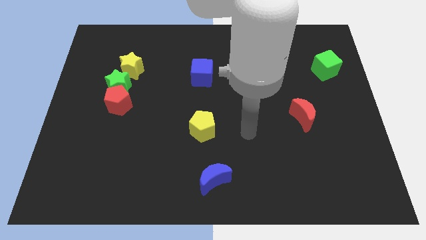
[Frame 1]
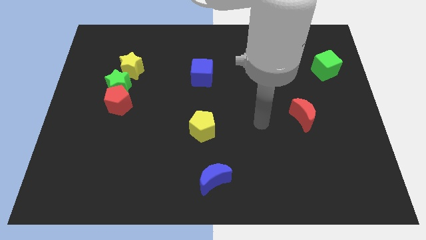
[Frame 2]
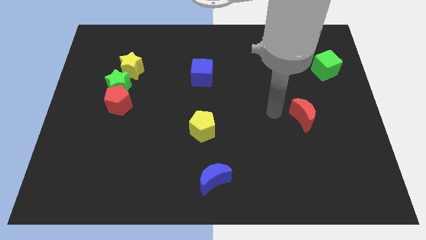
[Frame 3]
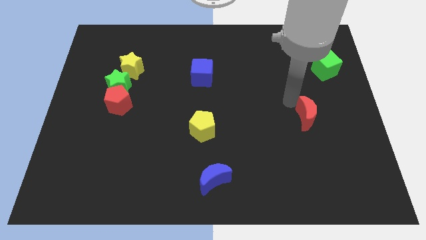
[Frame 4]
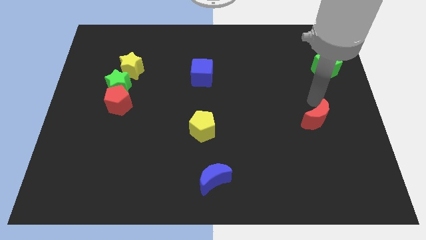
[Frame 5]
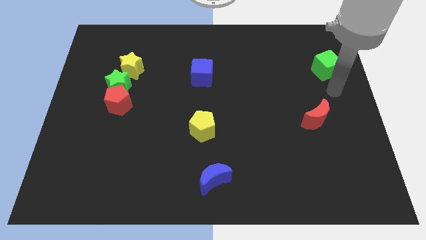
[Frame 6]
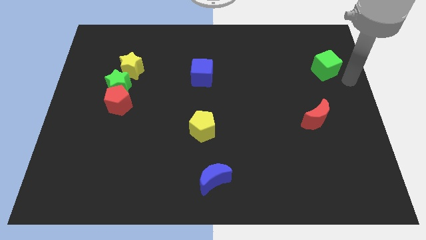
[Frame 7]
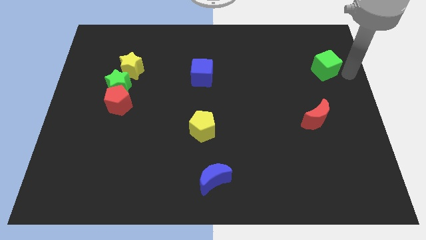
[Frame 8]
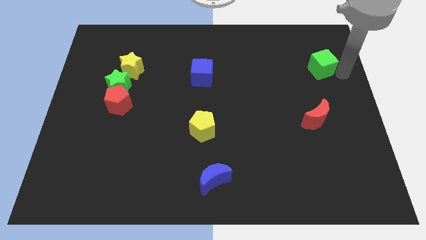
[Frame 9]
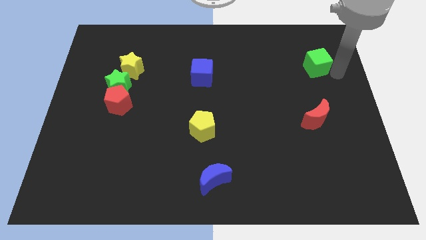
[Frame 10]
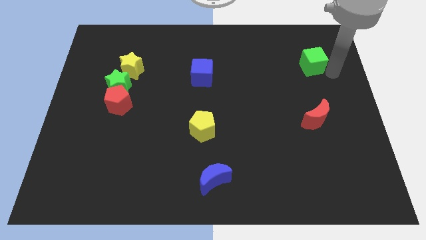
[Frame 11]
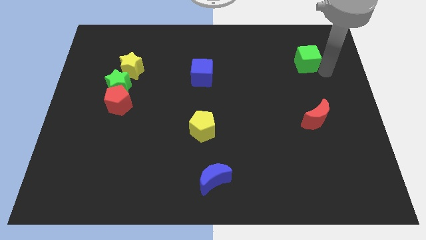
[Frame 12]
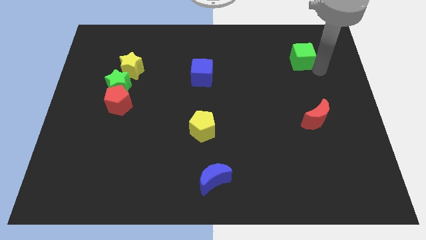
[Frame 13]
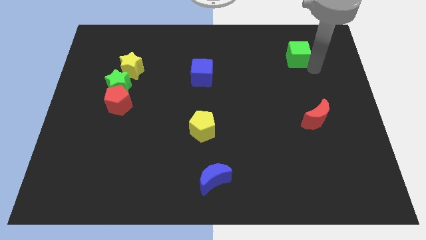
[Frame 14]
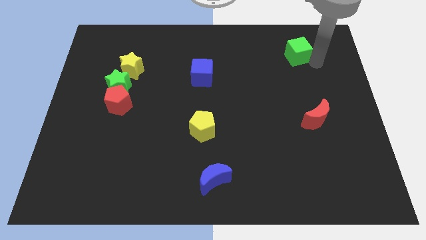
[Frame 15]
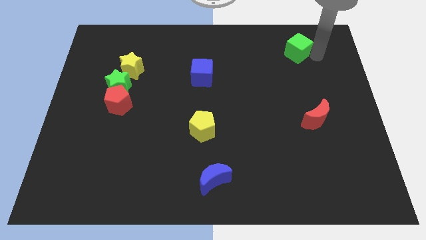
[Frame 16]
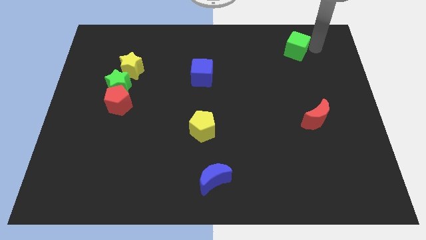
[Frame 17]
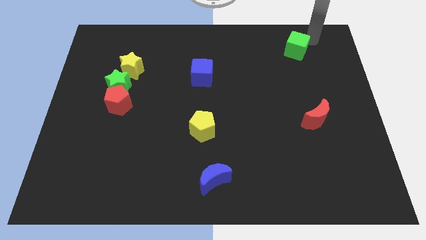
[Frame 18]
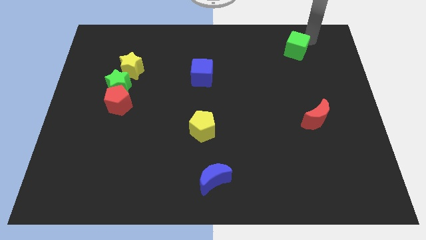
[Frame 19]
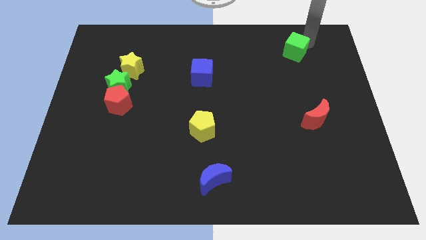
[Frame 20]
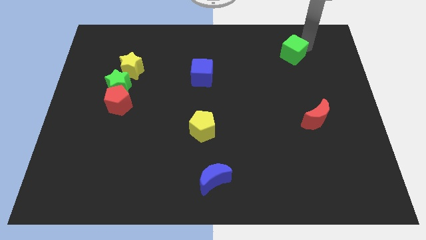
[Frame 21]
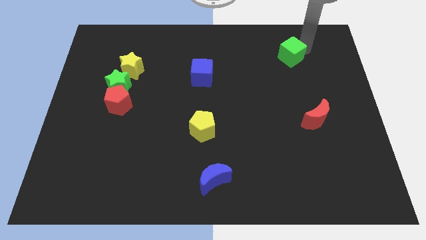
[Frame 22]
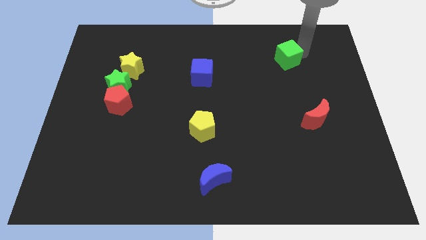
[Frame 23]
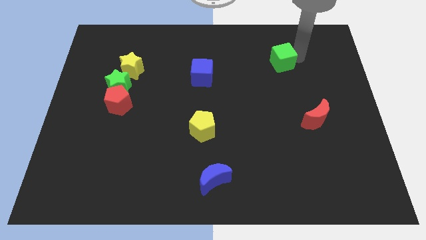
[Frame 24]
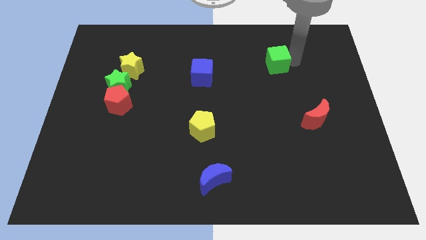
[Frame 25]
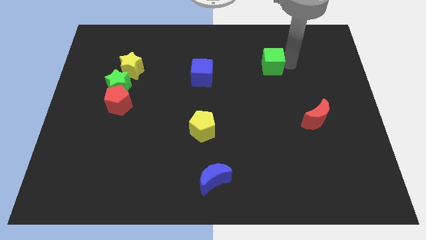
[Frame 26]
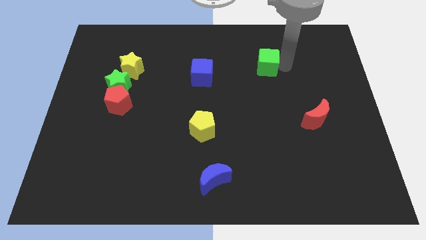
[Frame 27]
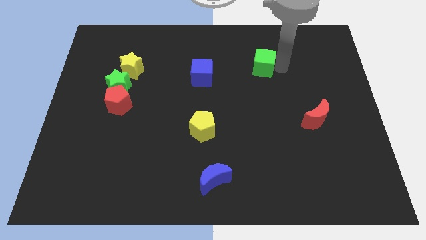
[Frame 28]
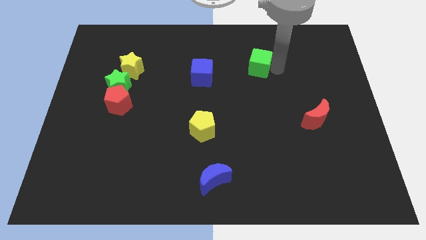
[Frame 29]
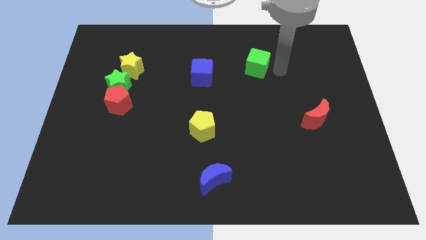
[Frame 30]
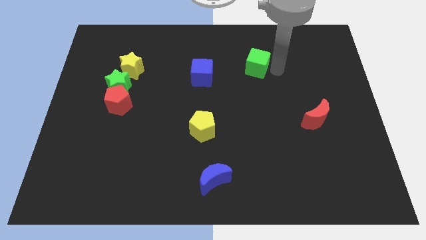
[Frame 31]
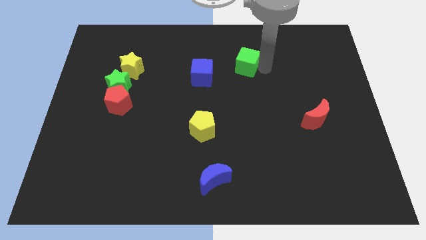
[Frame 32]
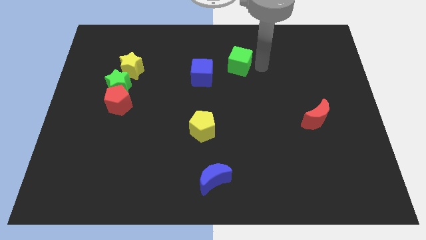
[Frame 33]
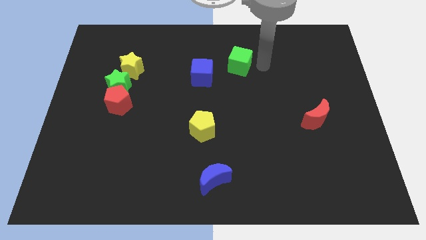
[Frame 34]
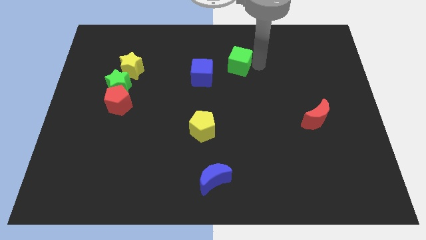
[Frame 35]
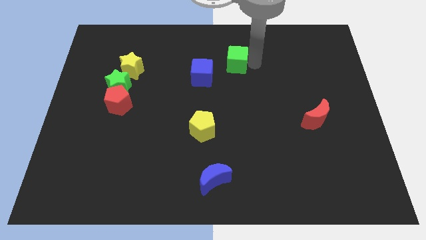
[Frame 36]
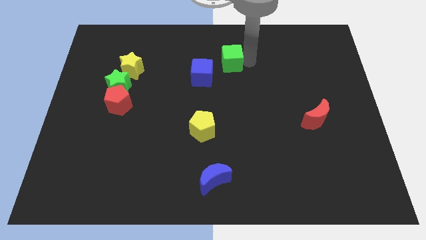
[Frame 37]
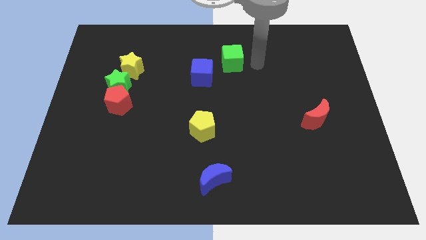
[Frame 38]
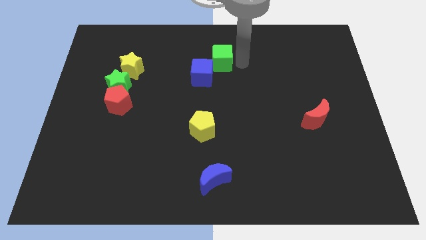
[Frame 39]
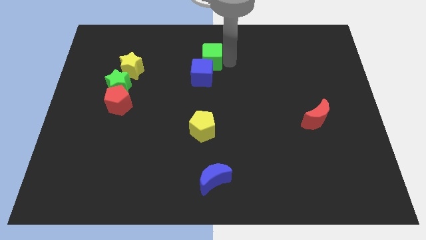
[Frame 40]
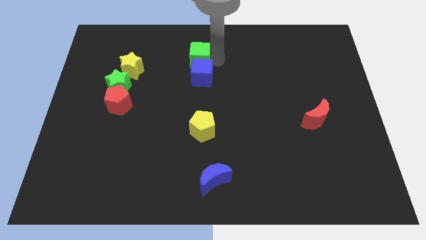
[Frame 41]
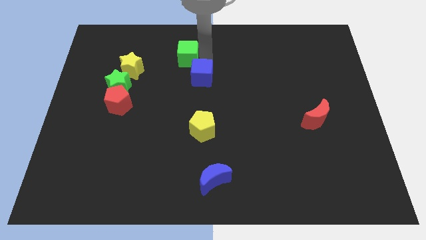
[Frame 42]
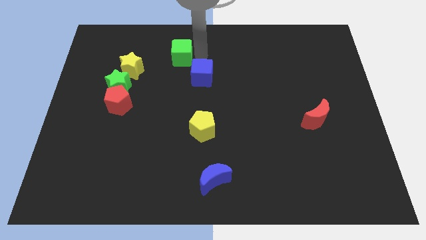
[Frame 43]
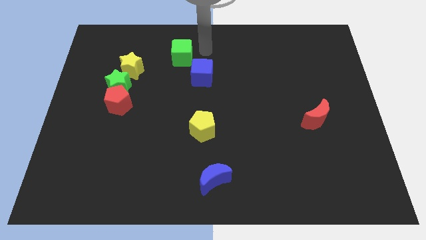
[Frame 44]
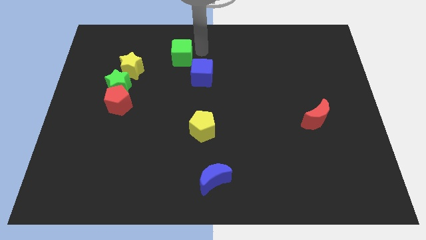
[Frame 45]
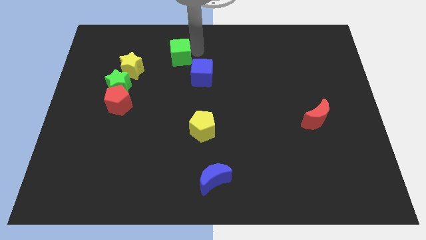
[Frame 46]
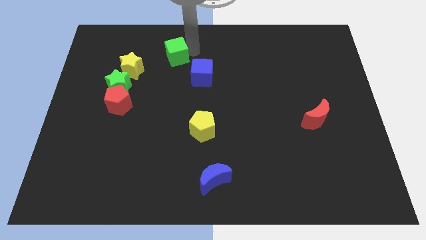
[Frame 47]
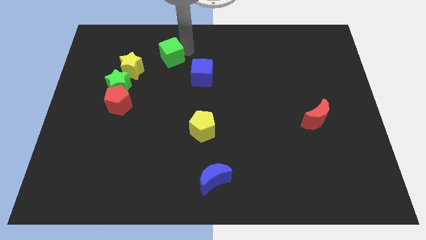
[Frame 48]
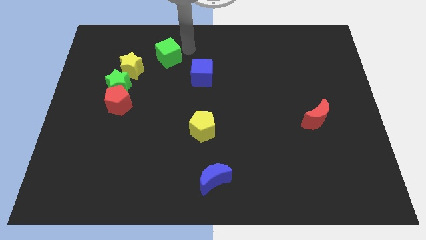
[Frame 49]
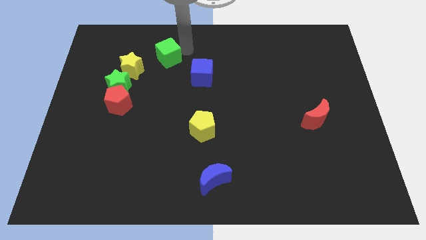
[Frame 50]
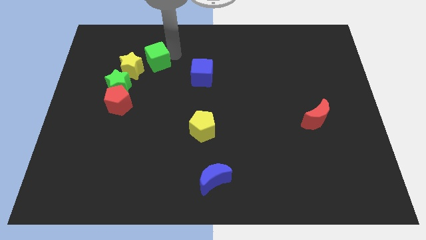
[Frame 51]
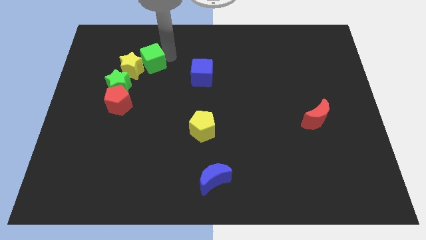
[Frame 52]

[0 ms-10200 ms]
move the green cube close to the yellow star

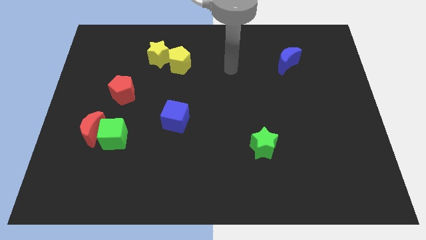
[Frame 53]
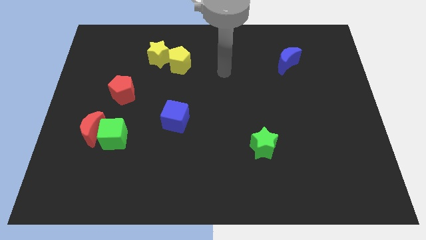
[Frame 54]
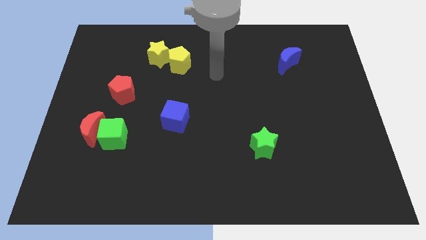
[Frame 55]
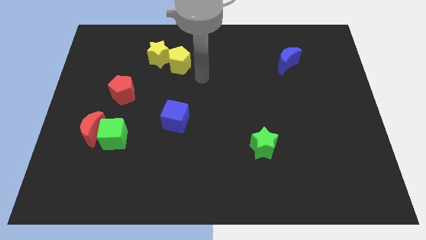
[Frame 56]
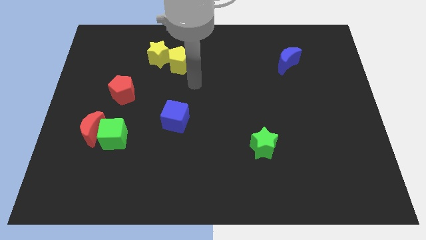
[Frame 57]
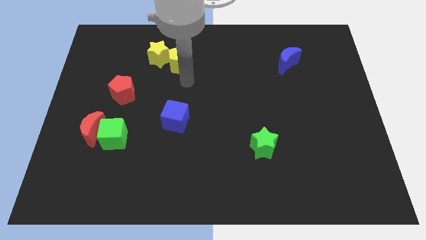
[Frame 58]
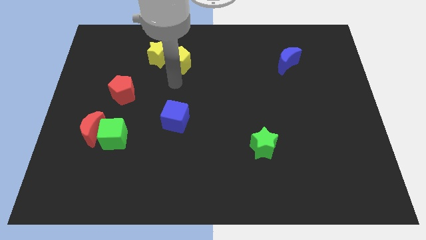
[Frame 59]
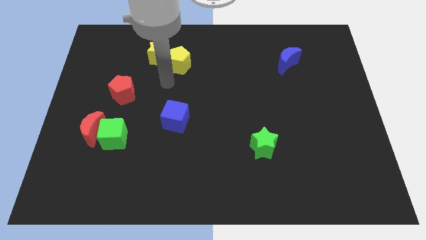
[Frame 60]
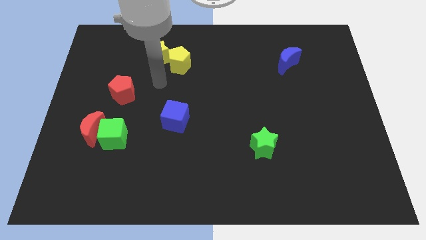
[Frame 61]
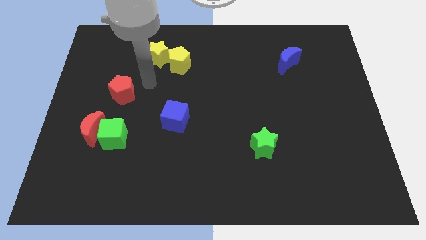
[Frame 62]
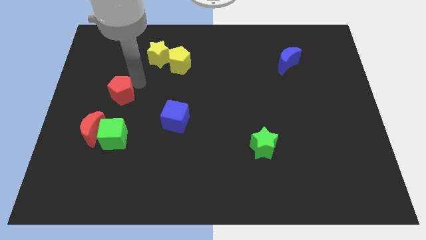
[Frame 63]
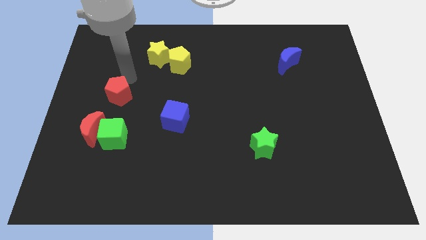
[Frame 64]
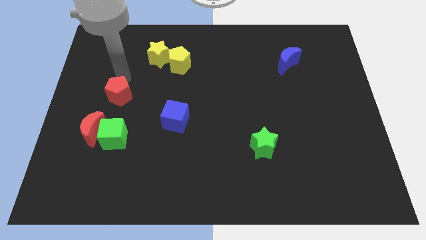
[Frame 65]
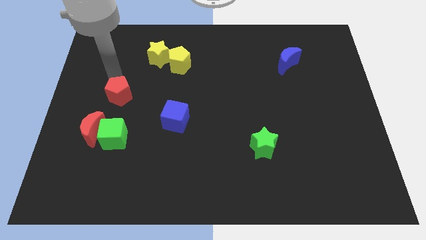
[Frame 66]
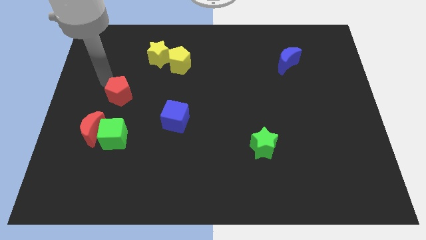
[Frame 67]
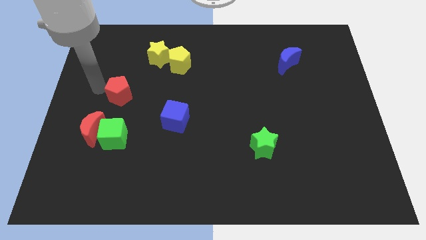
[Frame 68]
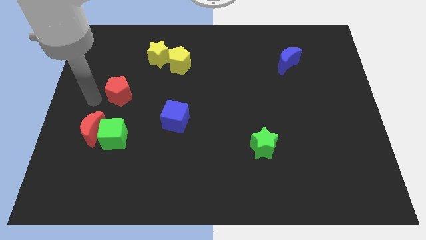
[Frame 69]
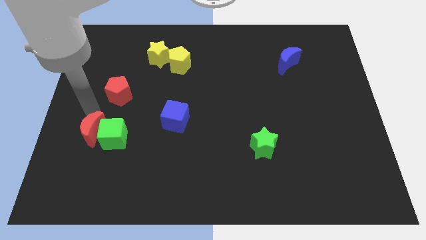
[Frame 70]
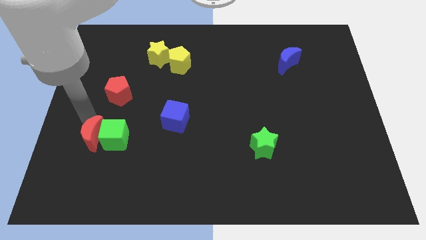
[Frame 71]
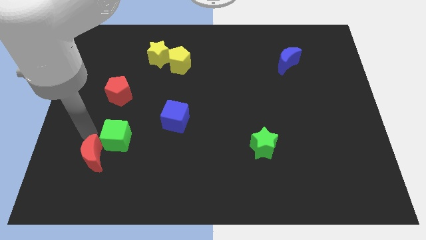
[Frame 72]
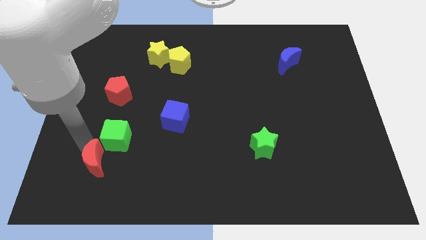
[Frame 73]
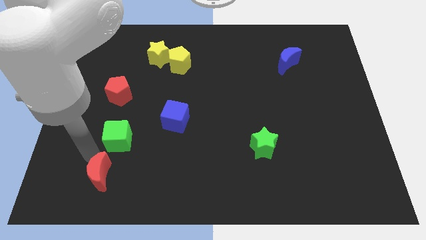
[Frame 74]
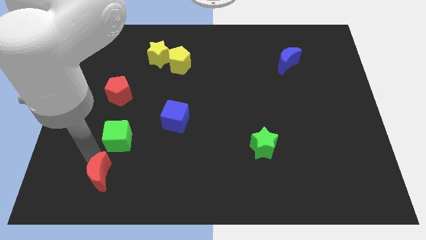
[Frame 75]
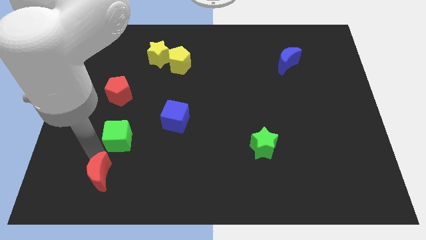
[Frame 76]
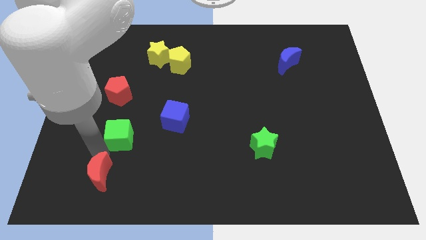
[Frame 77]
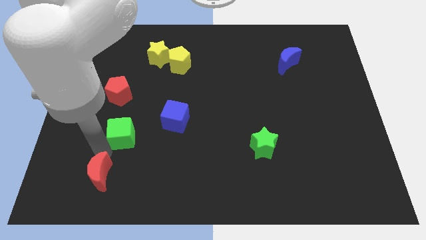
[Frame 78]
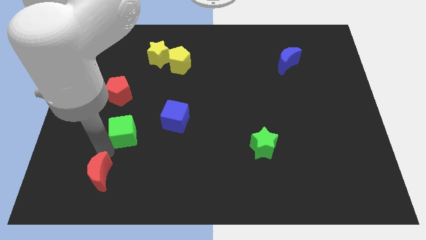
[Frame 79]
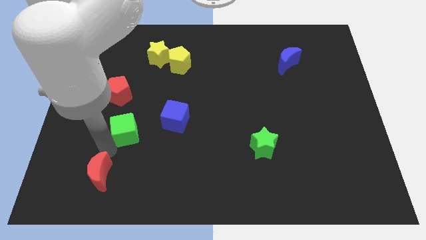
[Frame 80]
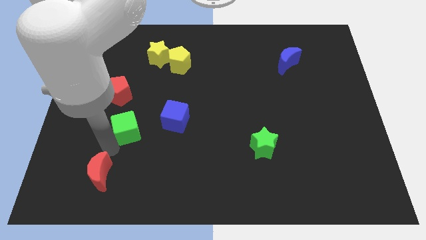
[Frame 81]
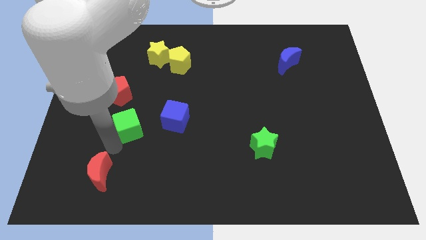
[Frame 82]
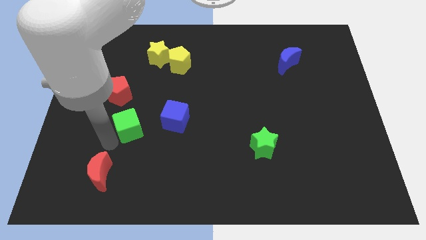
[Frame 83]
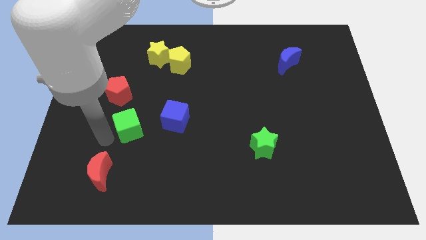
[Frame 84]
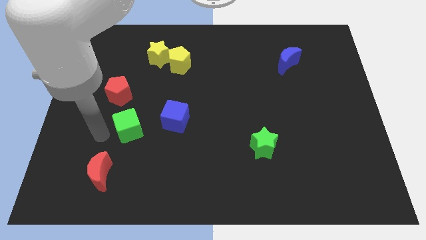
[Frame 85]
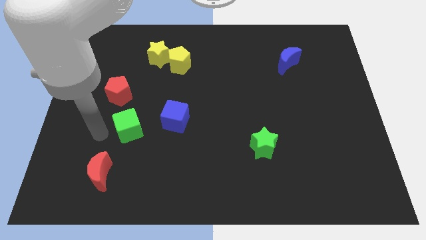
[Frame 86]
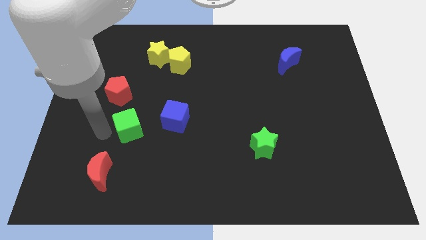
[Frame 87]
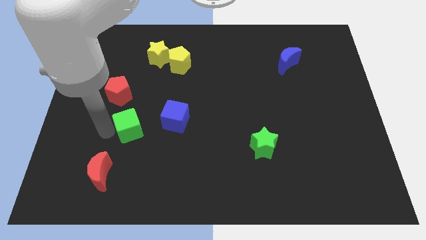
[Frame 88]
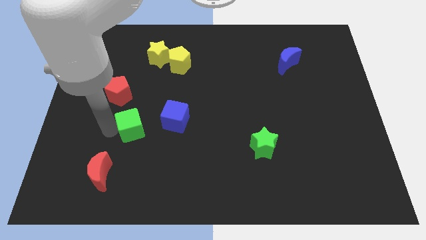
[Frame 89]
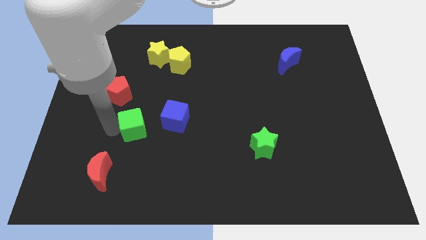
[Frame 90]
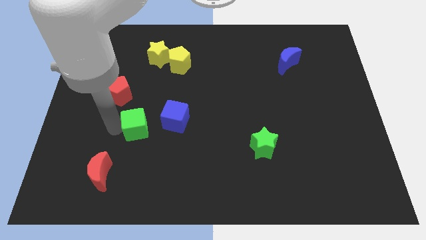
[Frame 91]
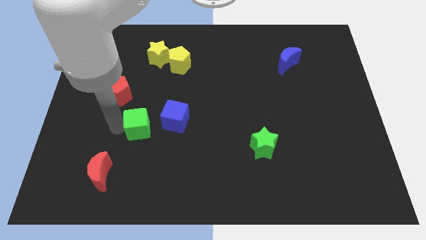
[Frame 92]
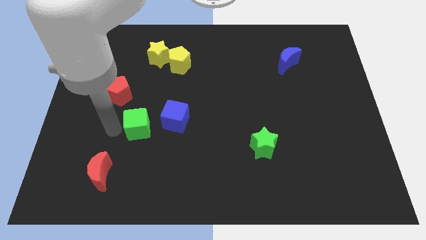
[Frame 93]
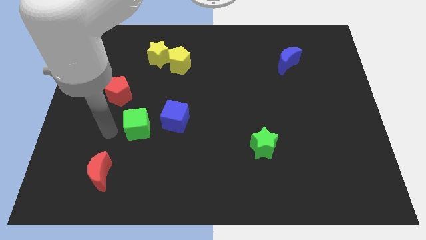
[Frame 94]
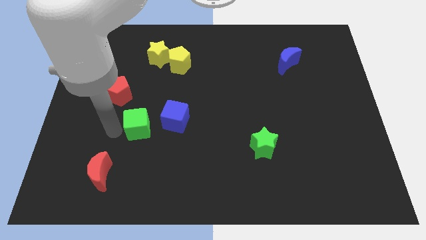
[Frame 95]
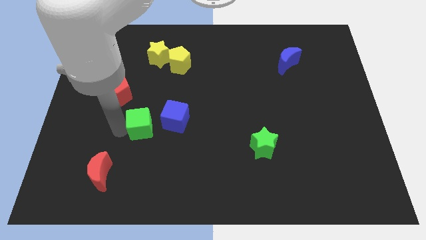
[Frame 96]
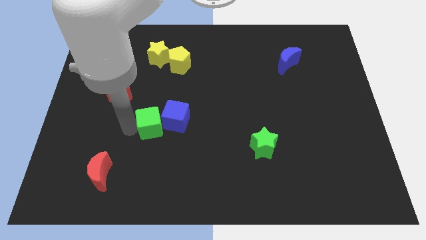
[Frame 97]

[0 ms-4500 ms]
move the green cube towards the blue cube
